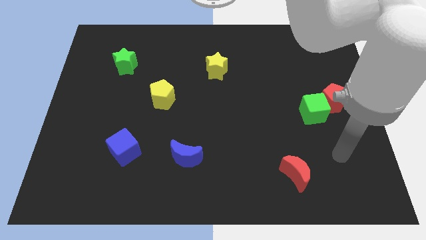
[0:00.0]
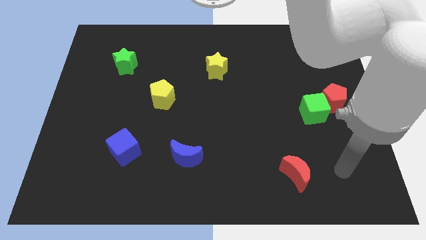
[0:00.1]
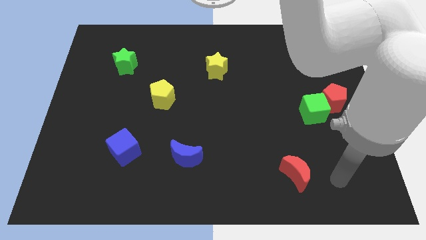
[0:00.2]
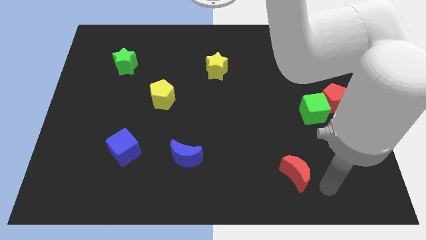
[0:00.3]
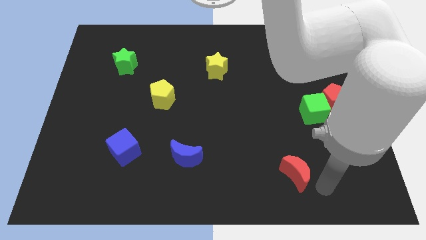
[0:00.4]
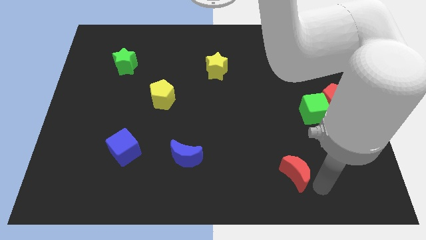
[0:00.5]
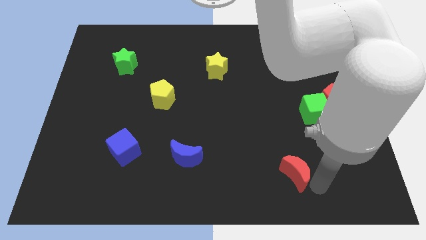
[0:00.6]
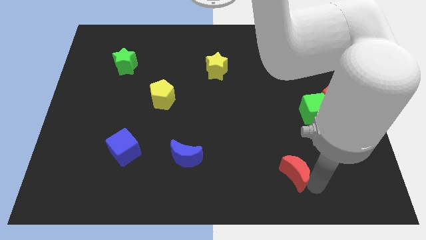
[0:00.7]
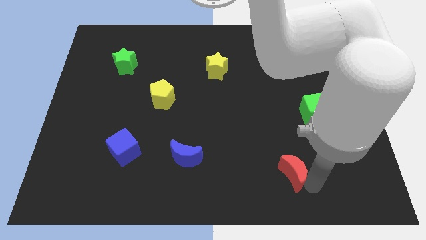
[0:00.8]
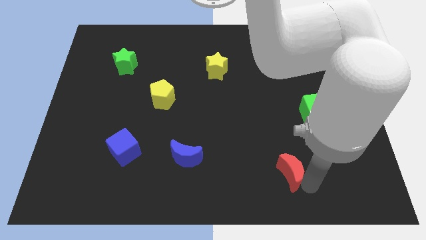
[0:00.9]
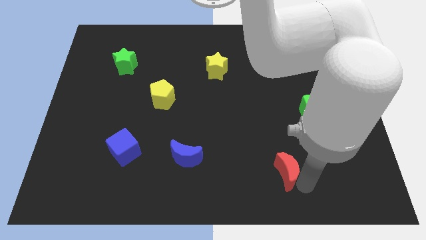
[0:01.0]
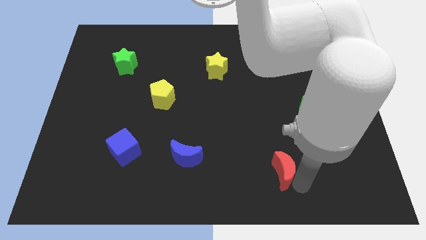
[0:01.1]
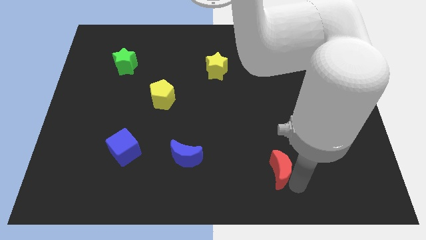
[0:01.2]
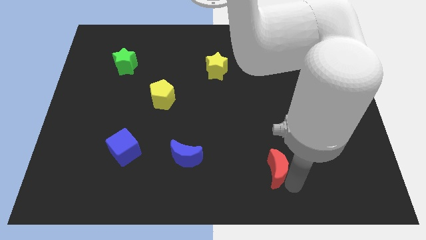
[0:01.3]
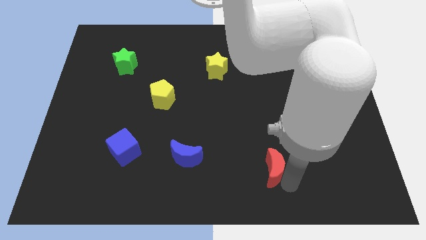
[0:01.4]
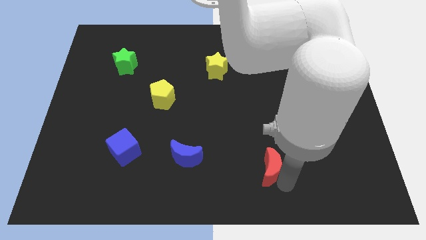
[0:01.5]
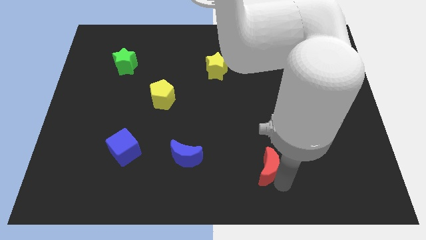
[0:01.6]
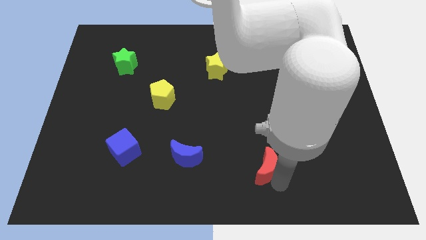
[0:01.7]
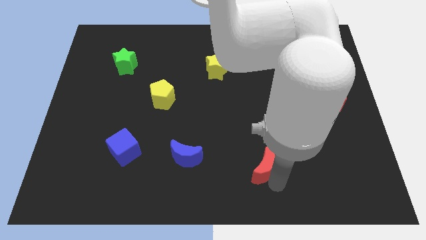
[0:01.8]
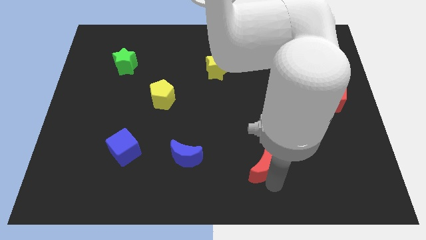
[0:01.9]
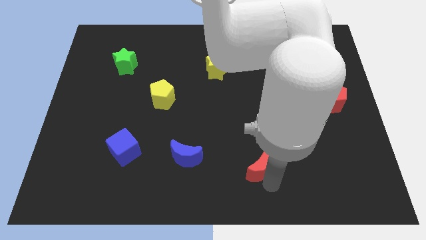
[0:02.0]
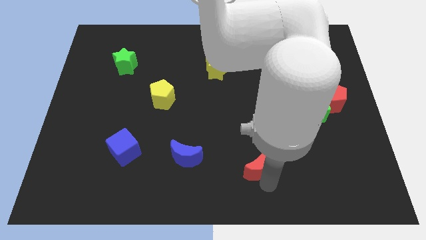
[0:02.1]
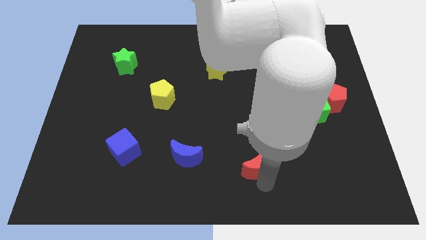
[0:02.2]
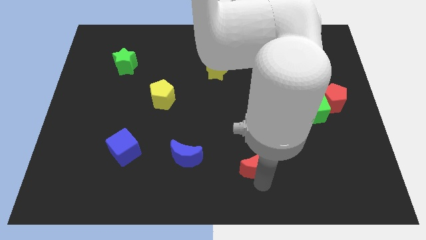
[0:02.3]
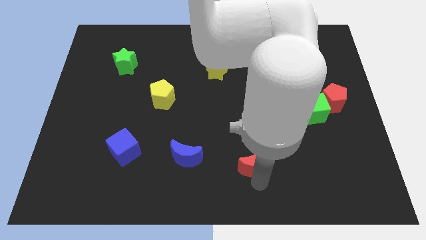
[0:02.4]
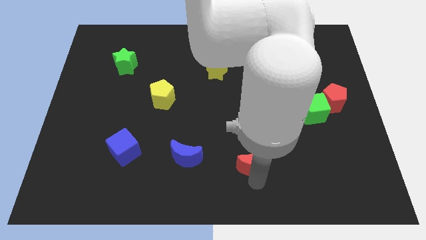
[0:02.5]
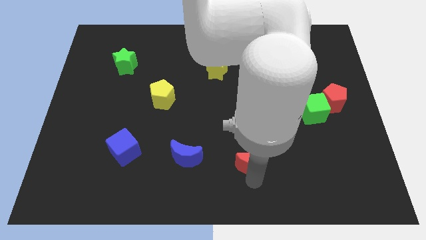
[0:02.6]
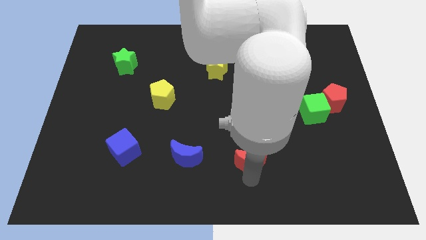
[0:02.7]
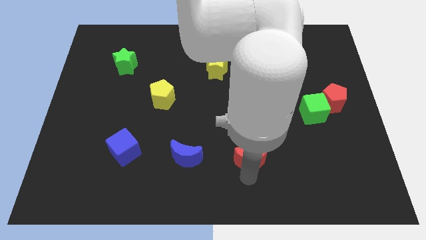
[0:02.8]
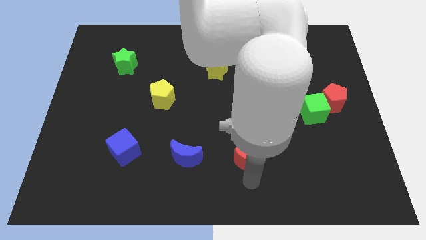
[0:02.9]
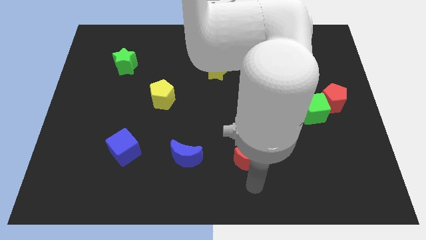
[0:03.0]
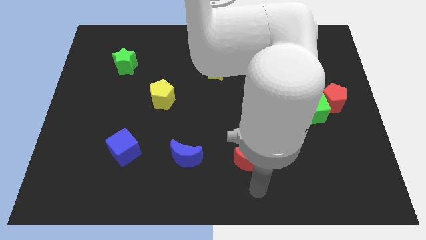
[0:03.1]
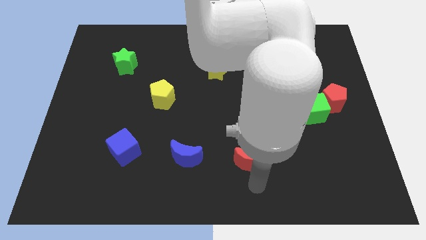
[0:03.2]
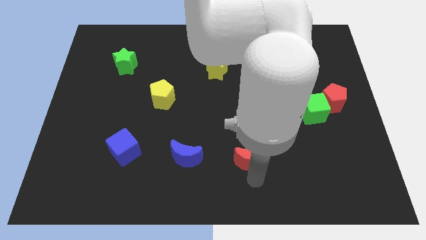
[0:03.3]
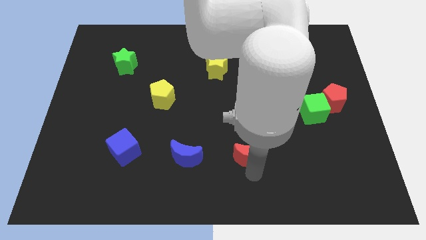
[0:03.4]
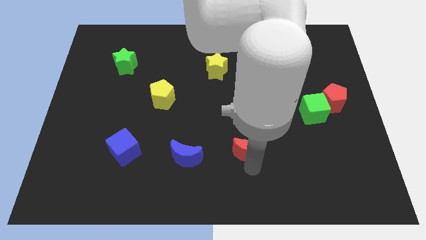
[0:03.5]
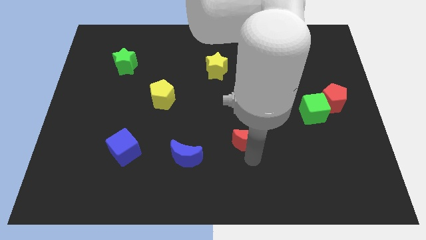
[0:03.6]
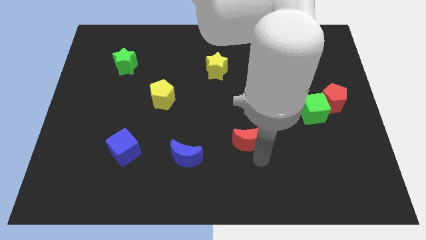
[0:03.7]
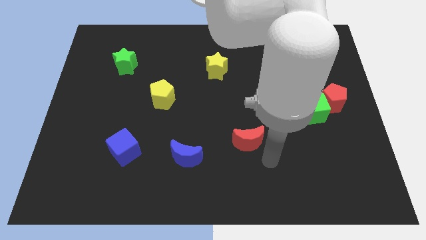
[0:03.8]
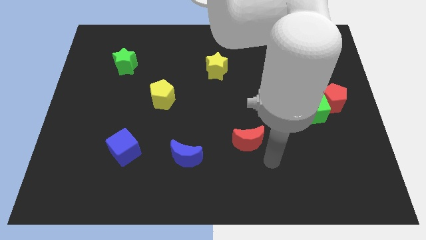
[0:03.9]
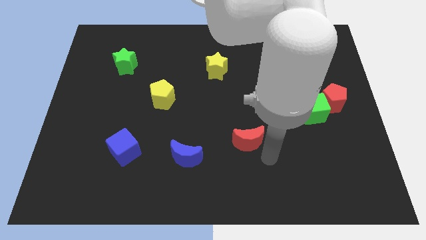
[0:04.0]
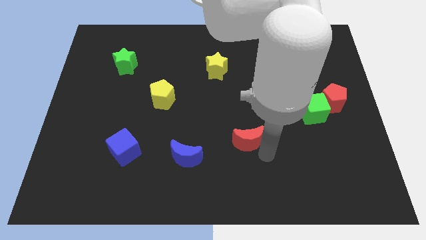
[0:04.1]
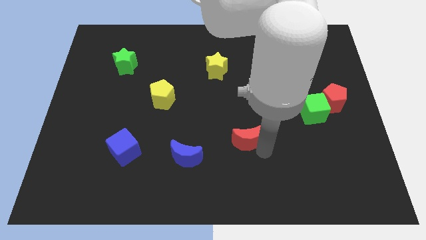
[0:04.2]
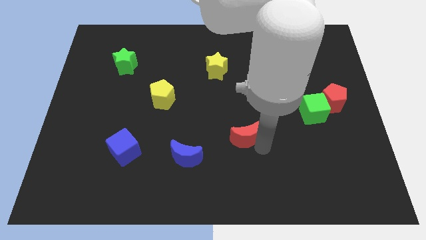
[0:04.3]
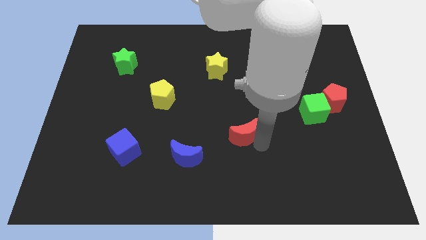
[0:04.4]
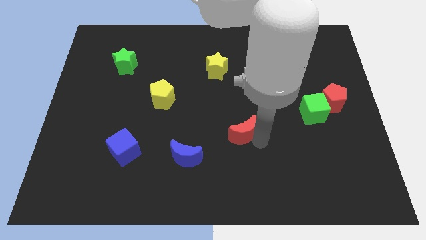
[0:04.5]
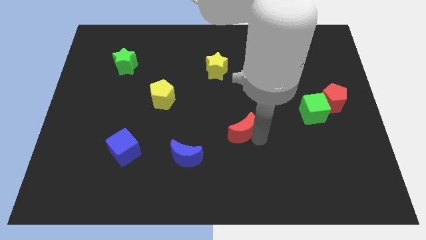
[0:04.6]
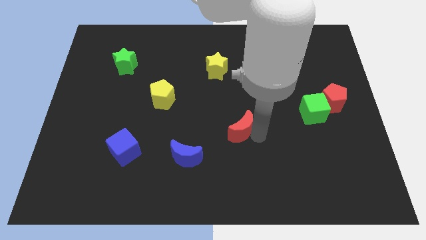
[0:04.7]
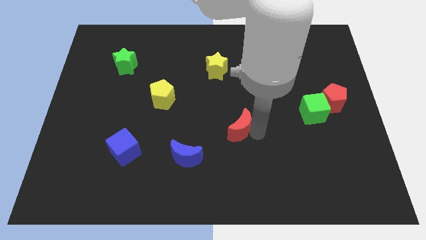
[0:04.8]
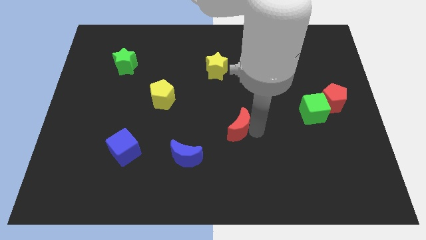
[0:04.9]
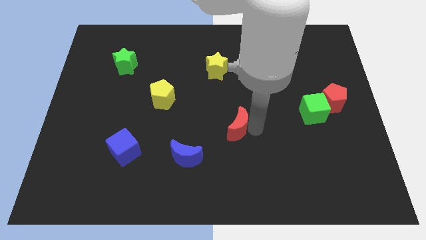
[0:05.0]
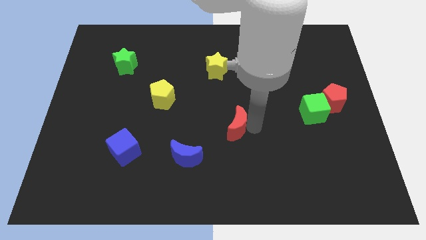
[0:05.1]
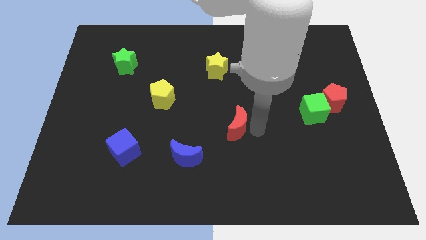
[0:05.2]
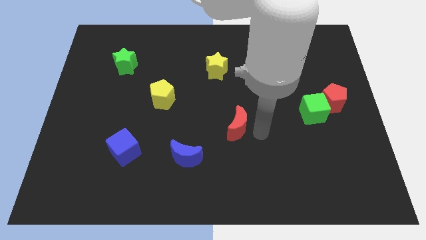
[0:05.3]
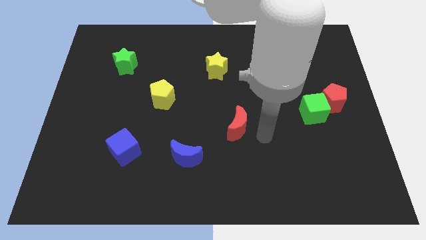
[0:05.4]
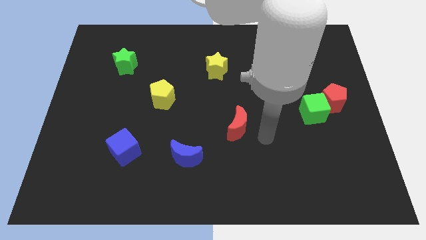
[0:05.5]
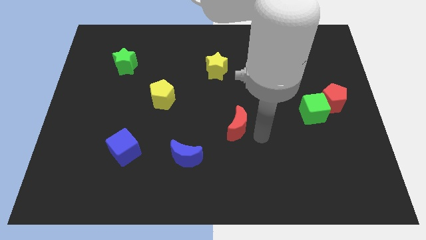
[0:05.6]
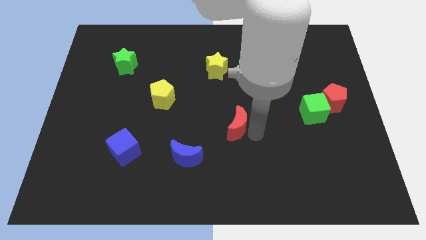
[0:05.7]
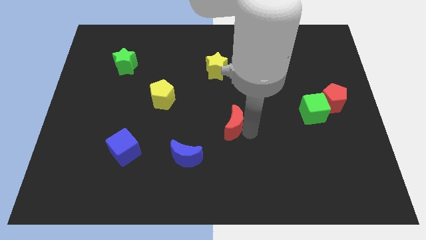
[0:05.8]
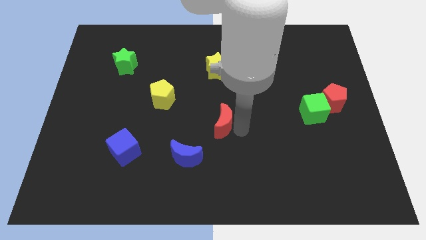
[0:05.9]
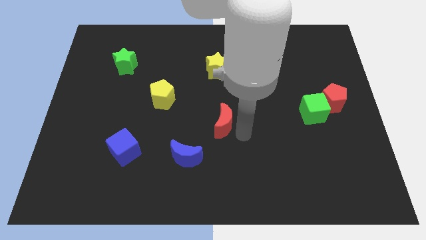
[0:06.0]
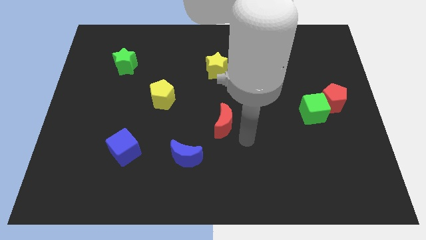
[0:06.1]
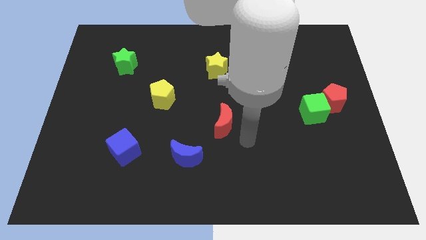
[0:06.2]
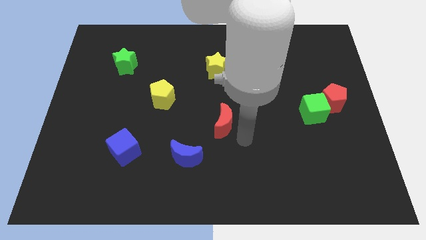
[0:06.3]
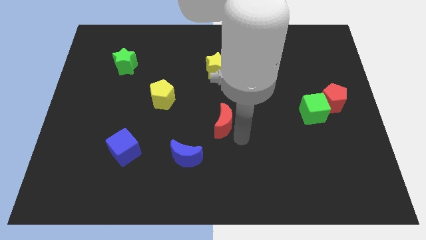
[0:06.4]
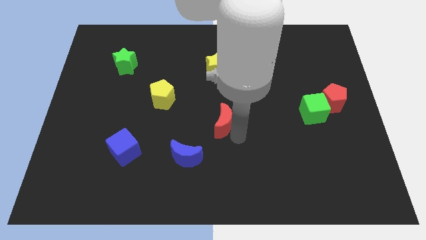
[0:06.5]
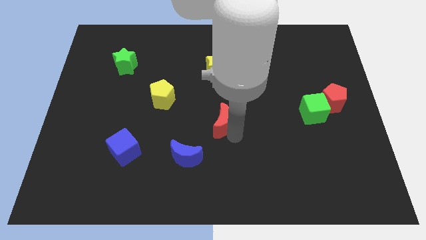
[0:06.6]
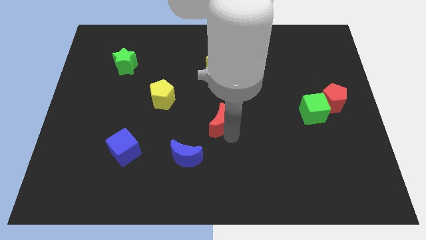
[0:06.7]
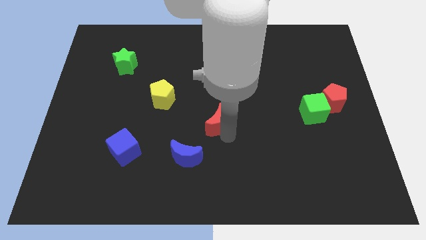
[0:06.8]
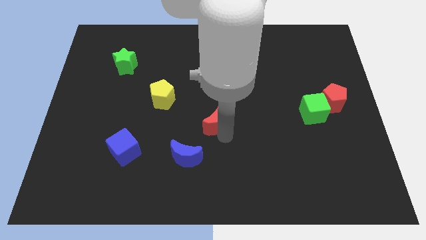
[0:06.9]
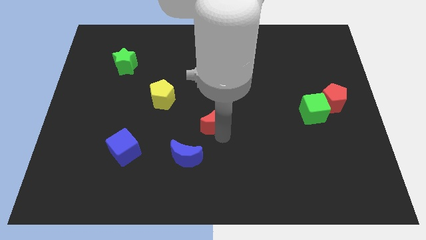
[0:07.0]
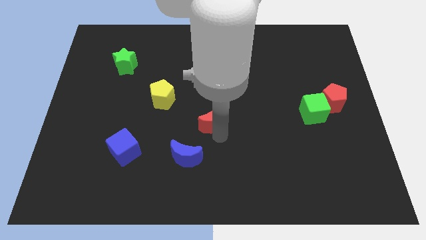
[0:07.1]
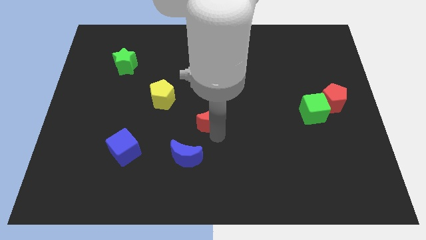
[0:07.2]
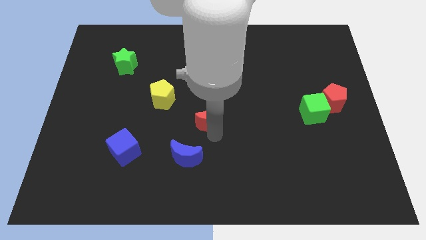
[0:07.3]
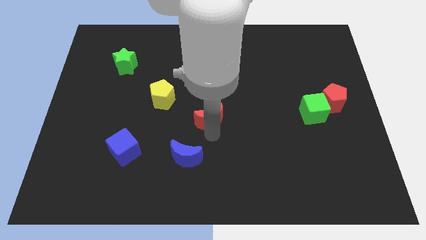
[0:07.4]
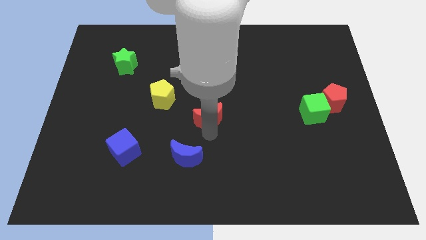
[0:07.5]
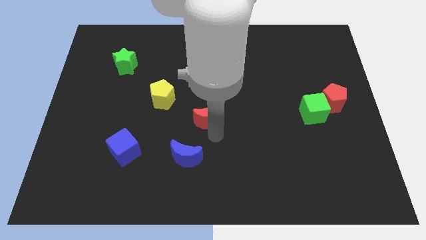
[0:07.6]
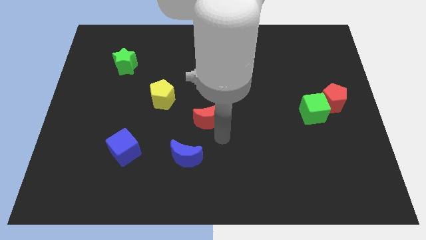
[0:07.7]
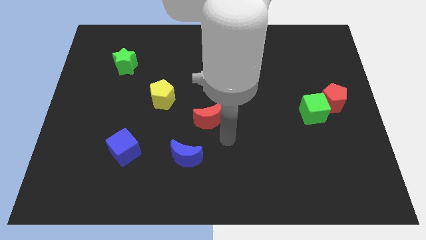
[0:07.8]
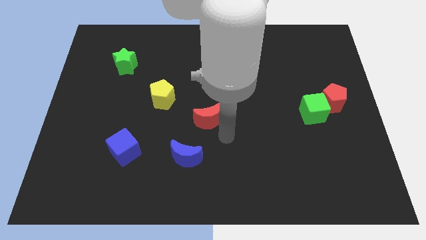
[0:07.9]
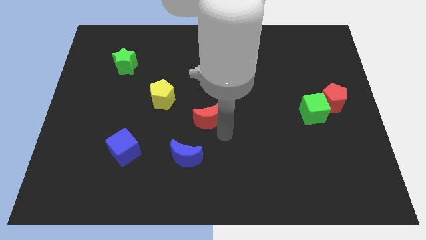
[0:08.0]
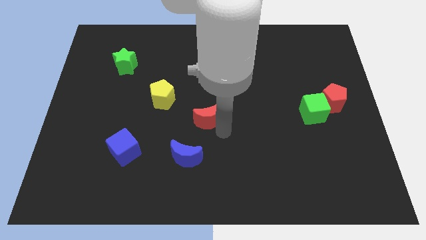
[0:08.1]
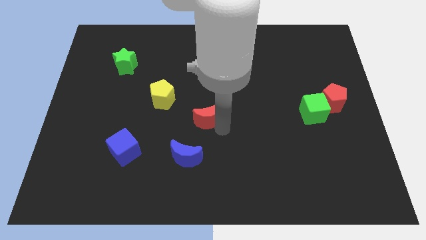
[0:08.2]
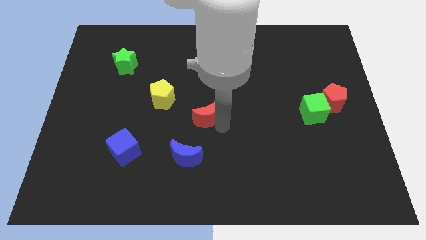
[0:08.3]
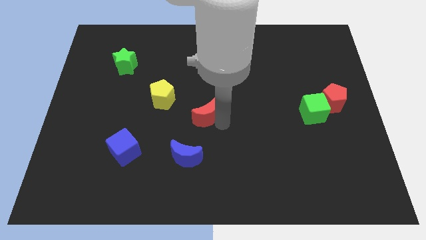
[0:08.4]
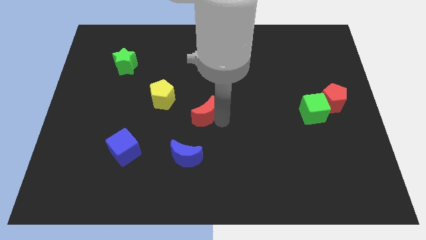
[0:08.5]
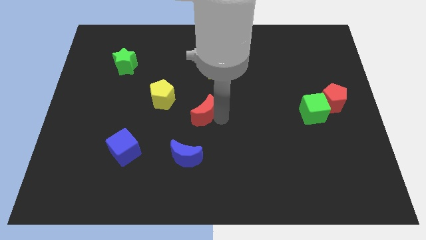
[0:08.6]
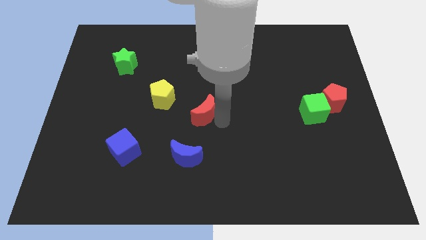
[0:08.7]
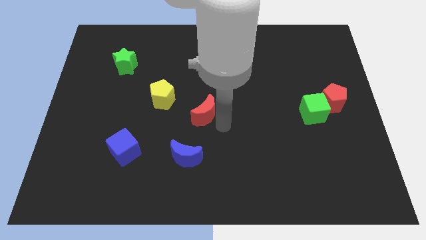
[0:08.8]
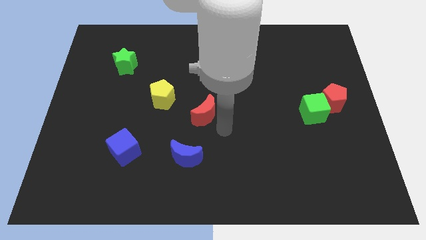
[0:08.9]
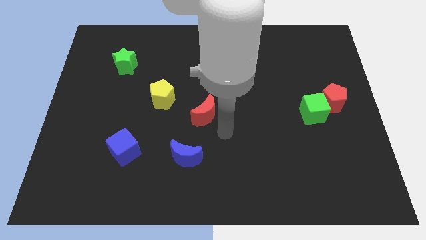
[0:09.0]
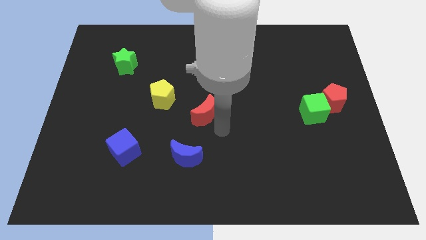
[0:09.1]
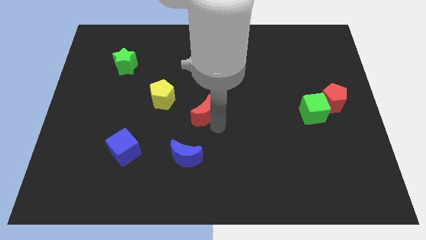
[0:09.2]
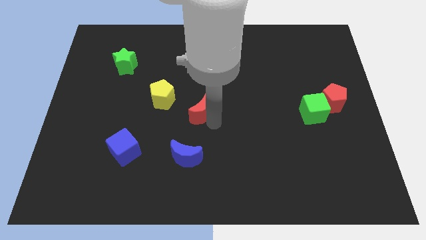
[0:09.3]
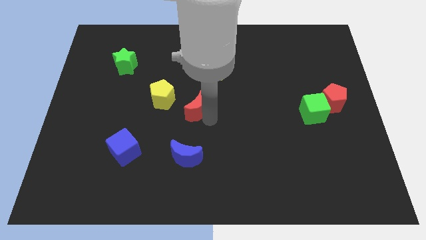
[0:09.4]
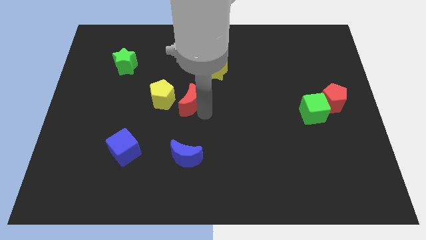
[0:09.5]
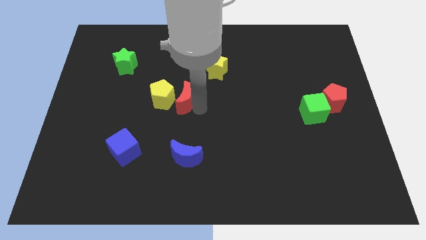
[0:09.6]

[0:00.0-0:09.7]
push the red moon towards the yellow pentagon
